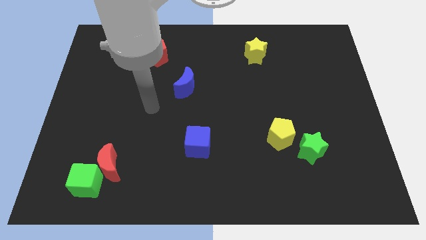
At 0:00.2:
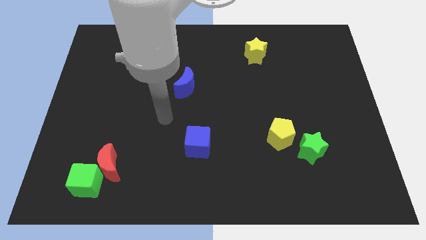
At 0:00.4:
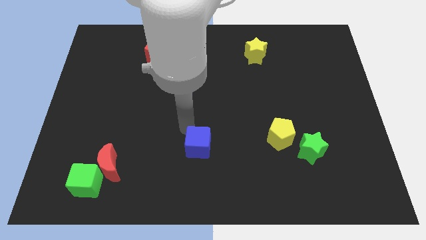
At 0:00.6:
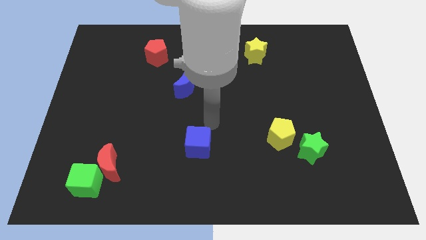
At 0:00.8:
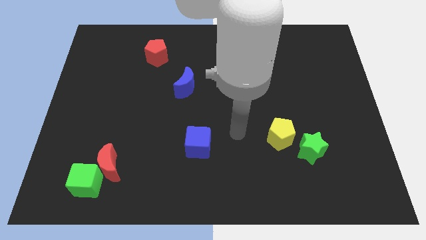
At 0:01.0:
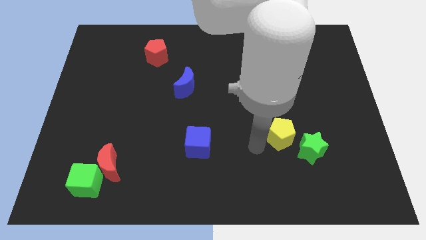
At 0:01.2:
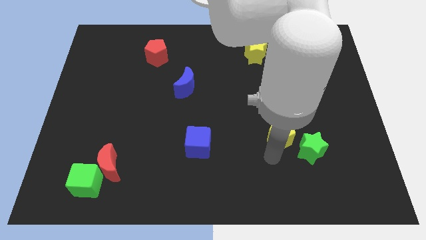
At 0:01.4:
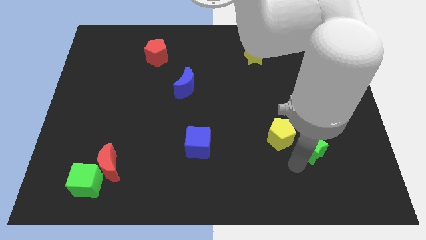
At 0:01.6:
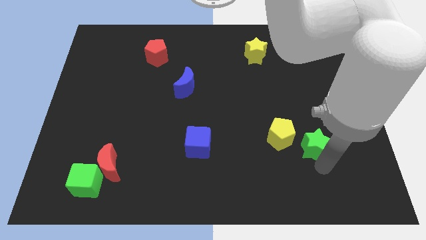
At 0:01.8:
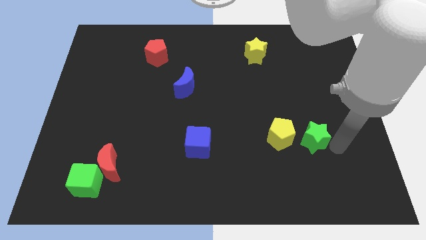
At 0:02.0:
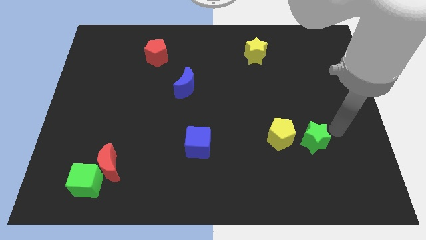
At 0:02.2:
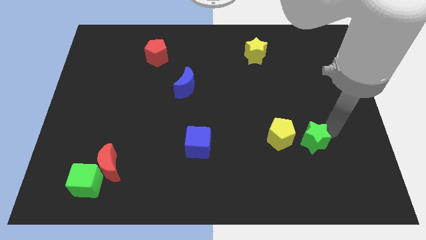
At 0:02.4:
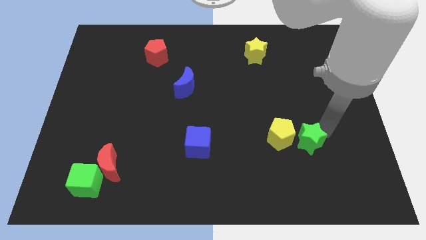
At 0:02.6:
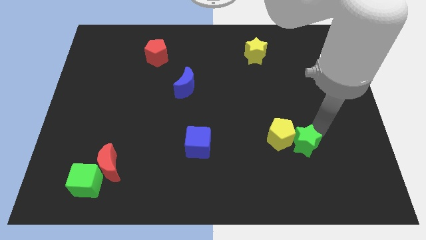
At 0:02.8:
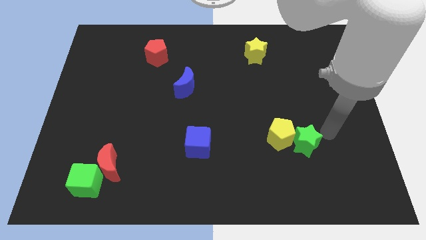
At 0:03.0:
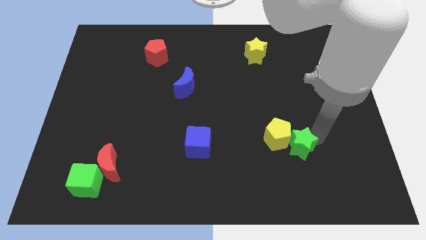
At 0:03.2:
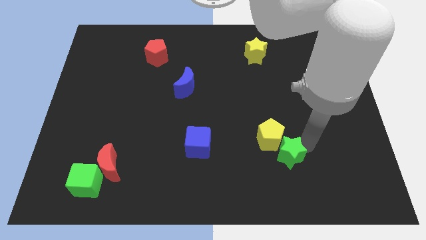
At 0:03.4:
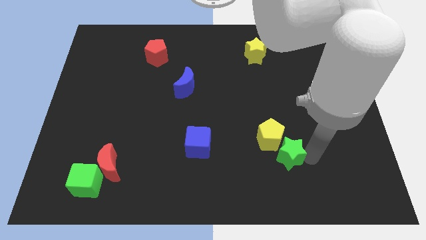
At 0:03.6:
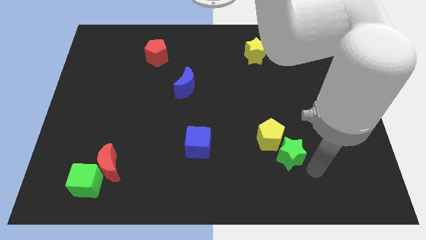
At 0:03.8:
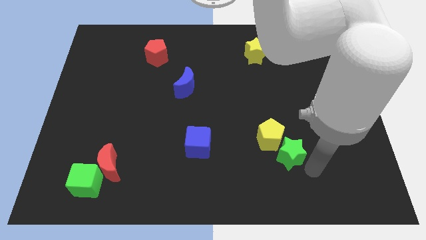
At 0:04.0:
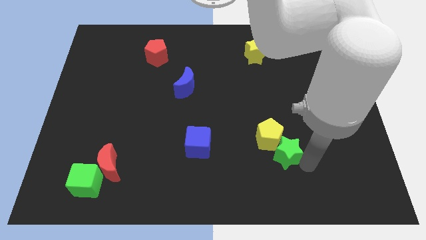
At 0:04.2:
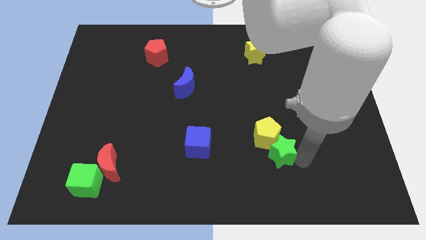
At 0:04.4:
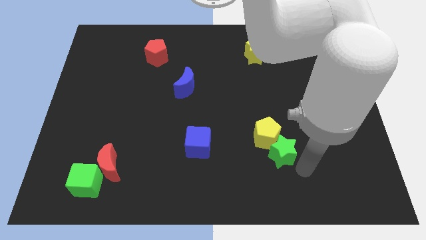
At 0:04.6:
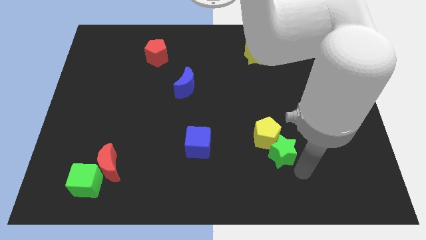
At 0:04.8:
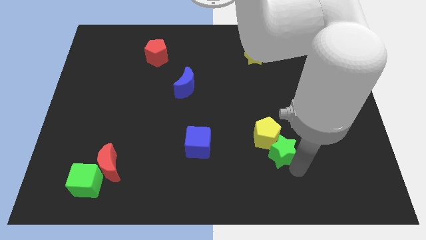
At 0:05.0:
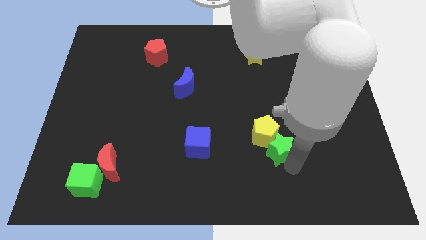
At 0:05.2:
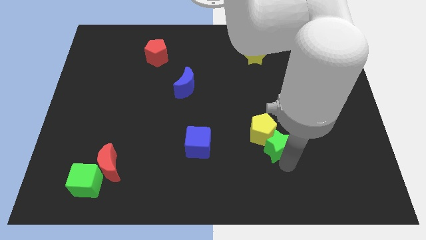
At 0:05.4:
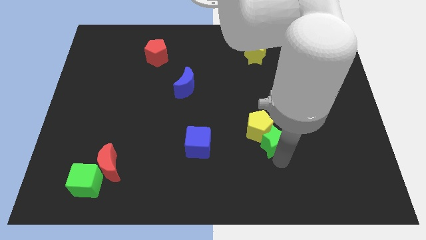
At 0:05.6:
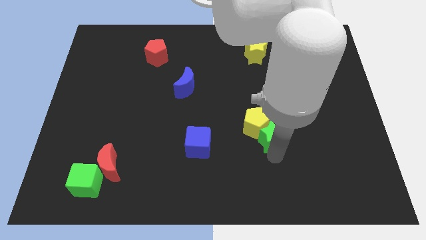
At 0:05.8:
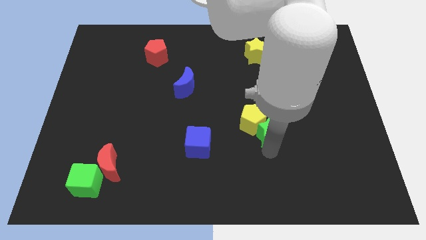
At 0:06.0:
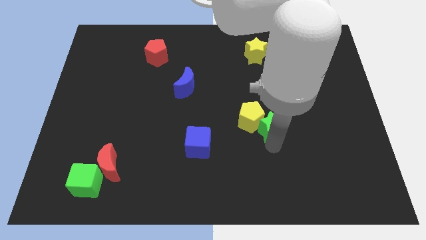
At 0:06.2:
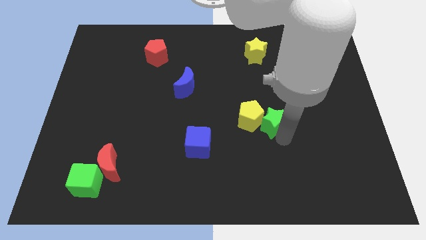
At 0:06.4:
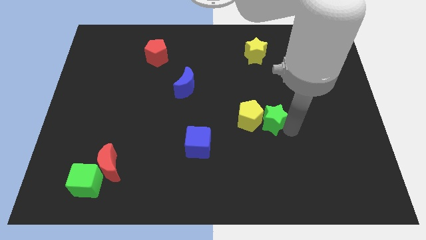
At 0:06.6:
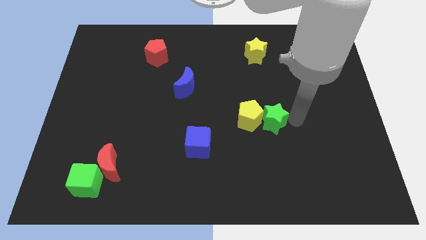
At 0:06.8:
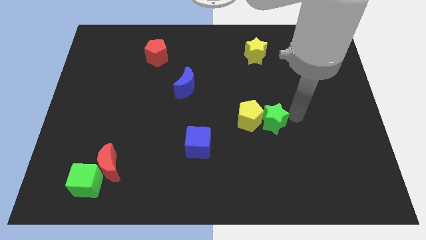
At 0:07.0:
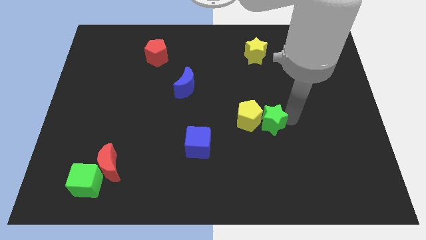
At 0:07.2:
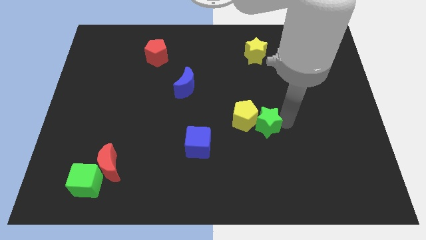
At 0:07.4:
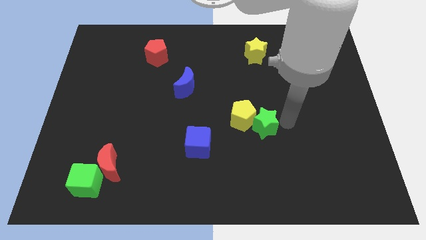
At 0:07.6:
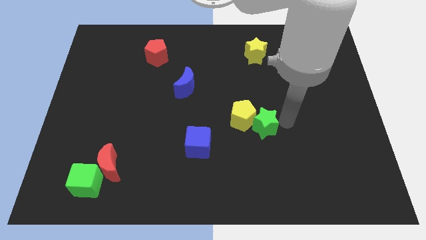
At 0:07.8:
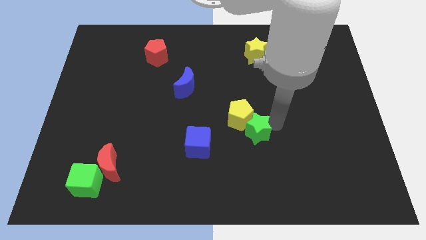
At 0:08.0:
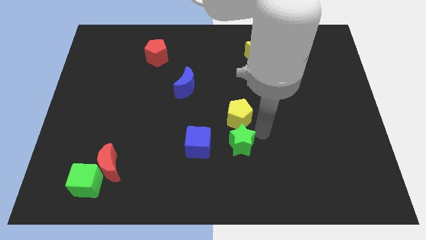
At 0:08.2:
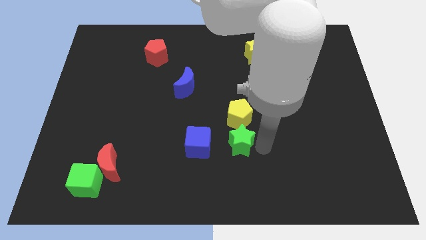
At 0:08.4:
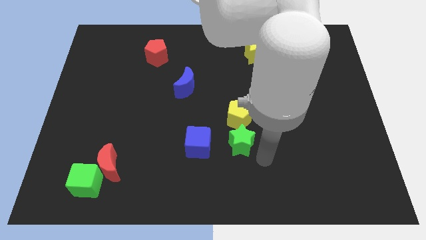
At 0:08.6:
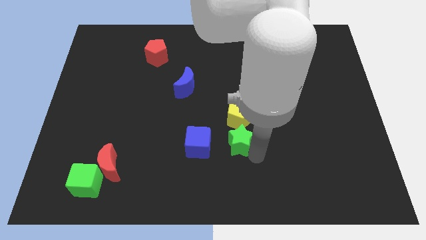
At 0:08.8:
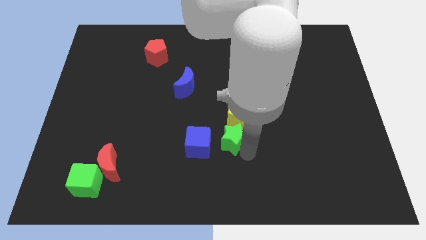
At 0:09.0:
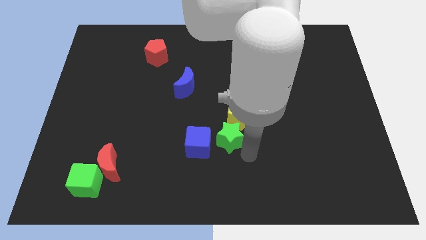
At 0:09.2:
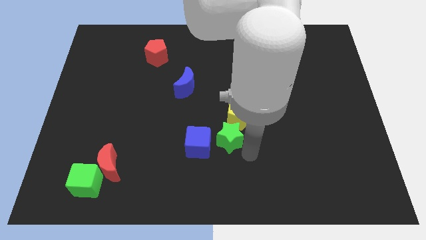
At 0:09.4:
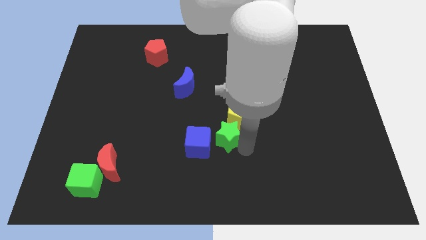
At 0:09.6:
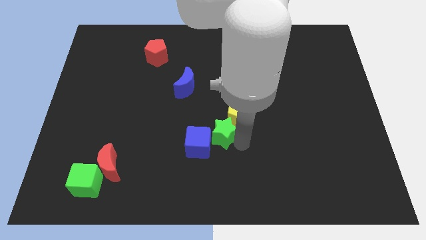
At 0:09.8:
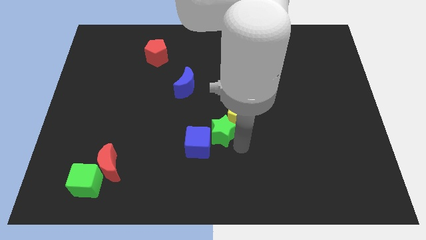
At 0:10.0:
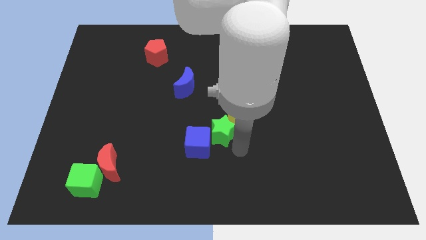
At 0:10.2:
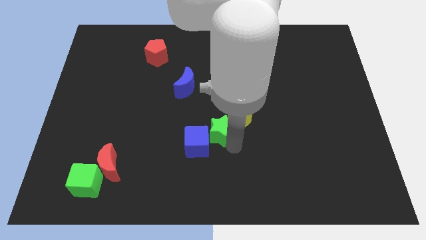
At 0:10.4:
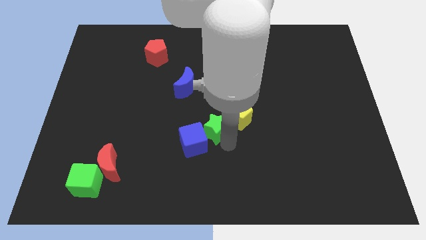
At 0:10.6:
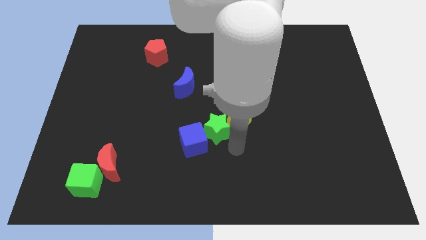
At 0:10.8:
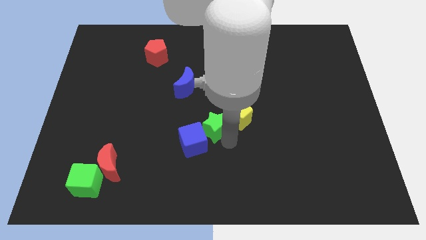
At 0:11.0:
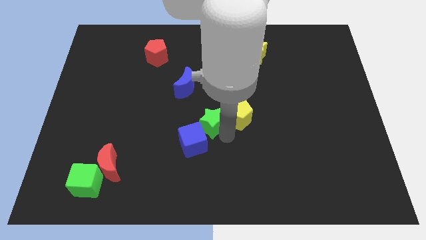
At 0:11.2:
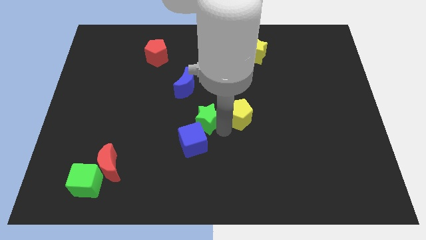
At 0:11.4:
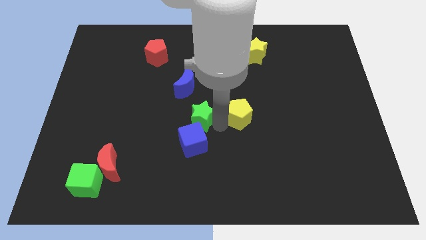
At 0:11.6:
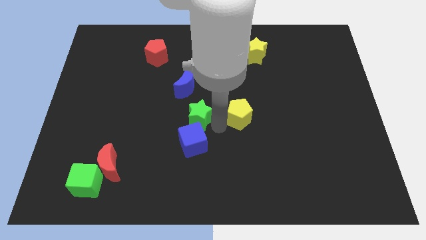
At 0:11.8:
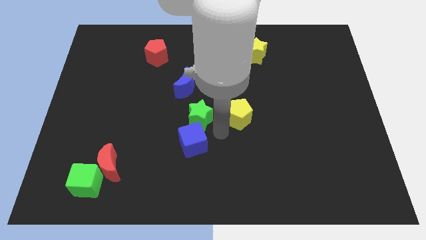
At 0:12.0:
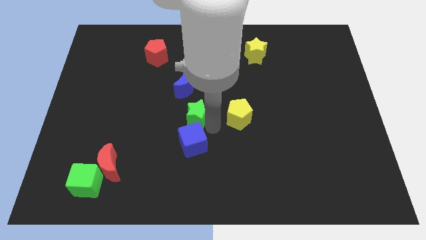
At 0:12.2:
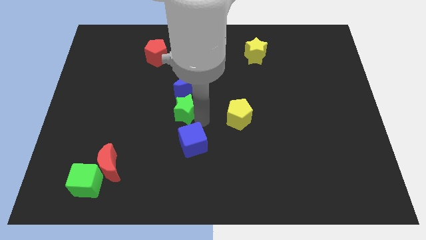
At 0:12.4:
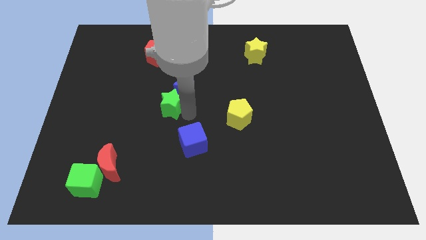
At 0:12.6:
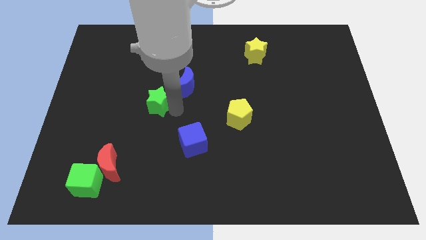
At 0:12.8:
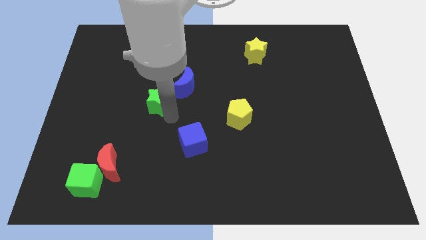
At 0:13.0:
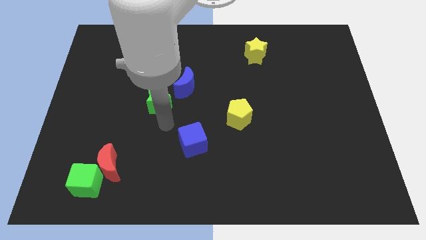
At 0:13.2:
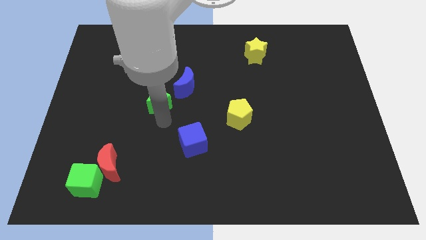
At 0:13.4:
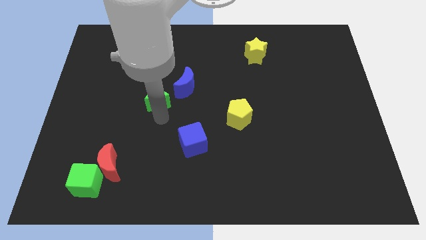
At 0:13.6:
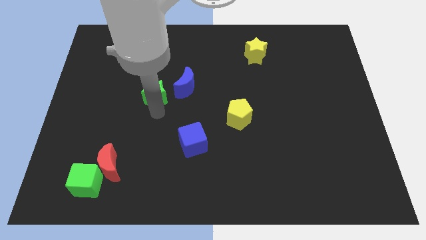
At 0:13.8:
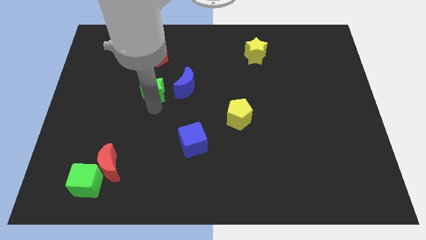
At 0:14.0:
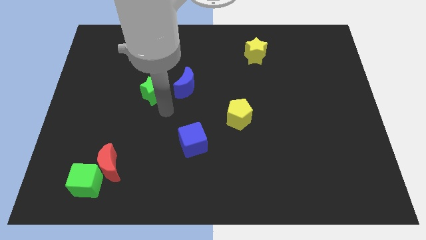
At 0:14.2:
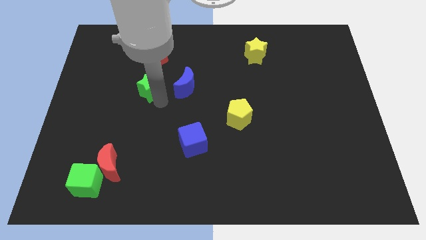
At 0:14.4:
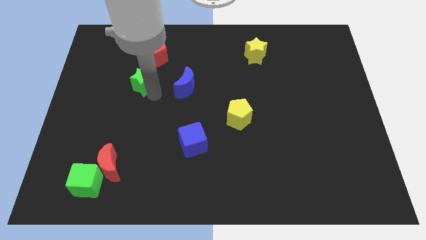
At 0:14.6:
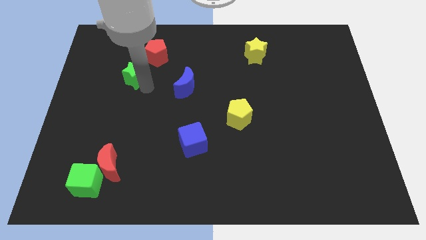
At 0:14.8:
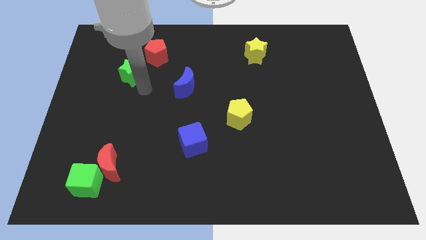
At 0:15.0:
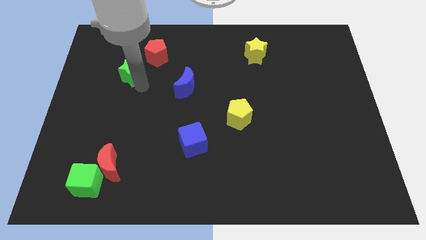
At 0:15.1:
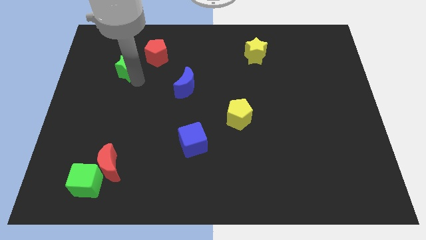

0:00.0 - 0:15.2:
slide the green star to the left of the red pentagon

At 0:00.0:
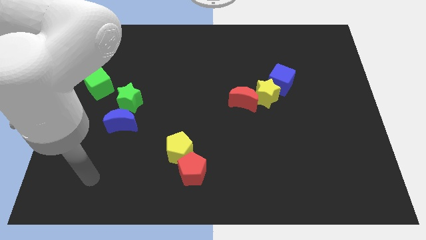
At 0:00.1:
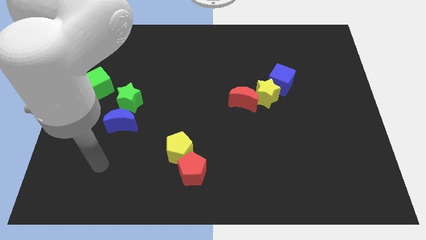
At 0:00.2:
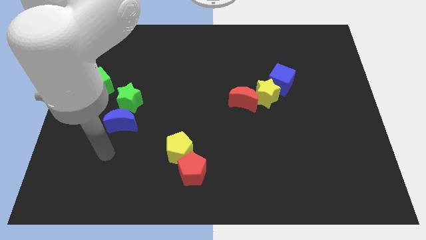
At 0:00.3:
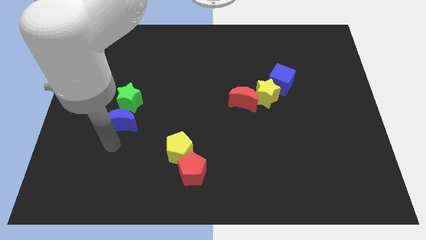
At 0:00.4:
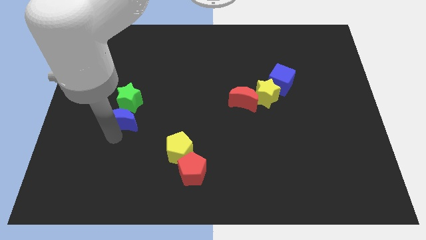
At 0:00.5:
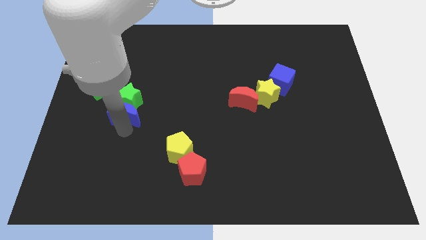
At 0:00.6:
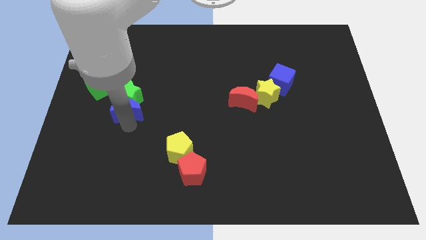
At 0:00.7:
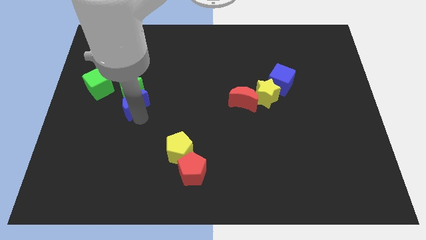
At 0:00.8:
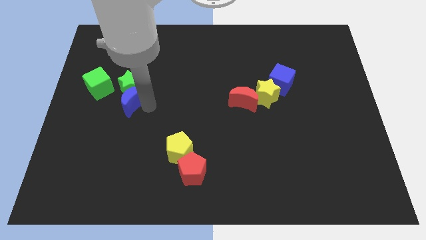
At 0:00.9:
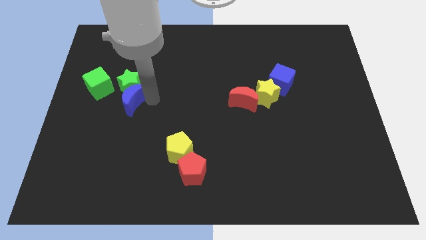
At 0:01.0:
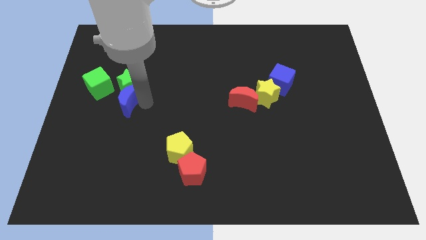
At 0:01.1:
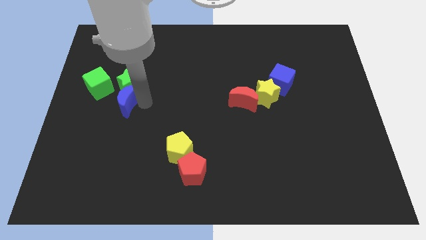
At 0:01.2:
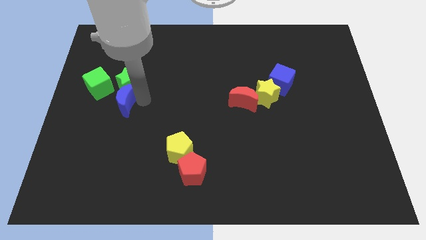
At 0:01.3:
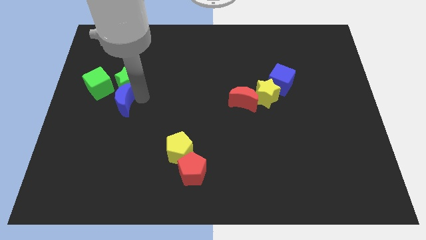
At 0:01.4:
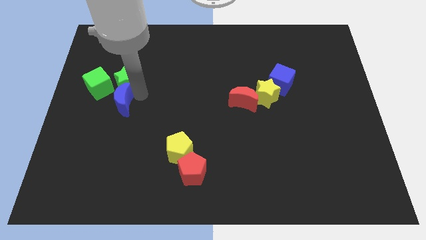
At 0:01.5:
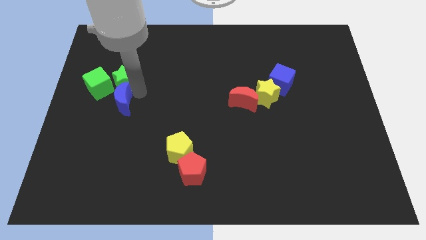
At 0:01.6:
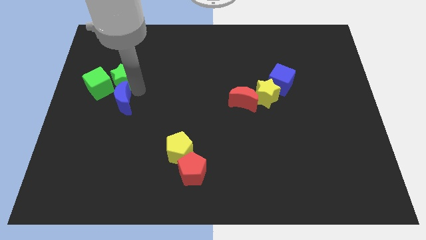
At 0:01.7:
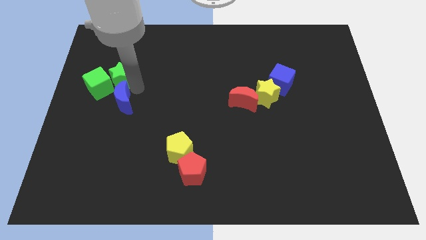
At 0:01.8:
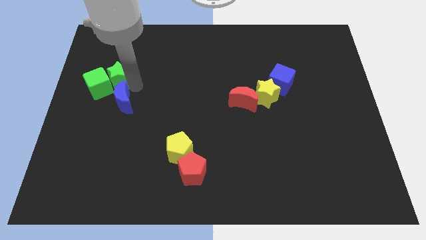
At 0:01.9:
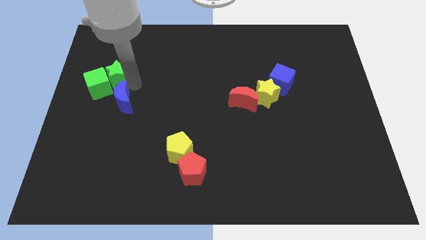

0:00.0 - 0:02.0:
push the green star to the top of the green cube
